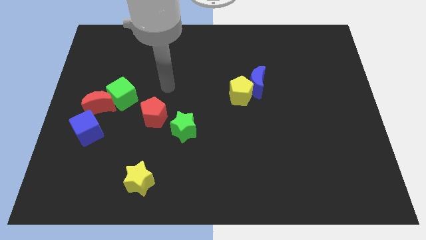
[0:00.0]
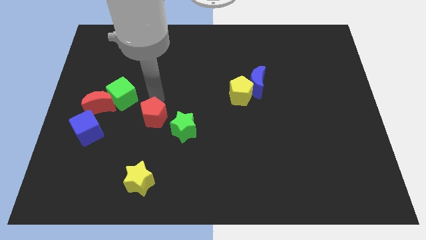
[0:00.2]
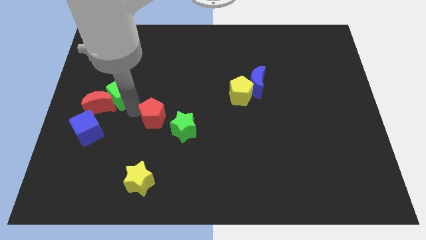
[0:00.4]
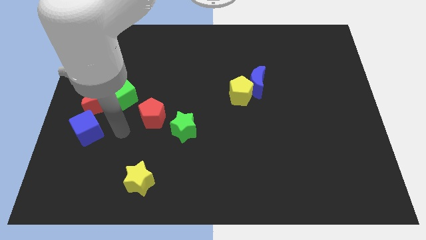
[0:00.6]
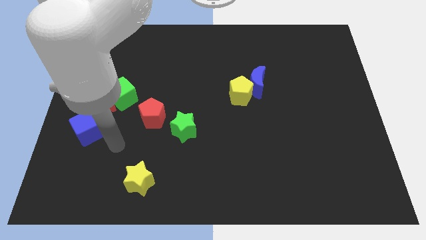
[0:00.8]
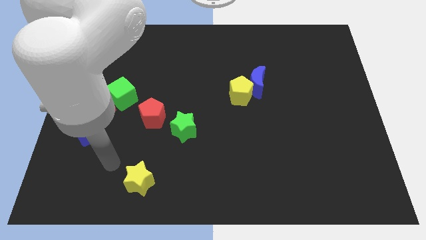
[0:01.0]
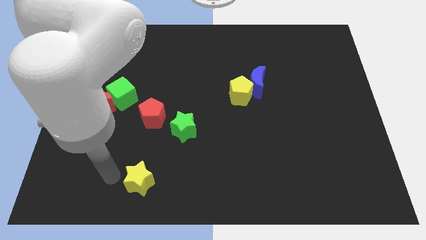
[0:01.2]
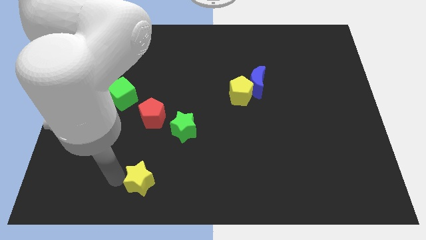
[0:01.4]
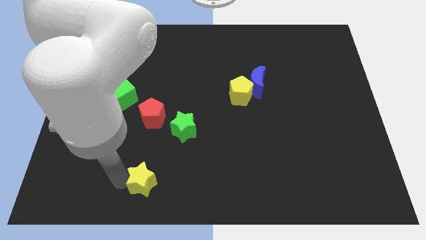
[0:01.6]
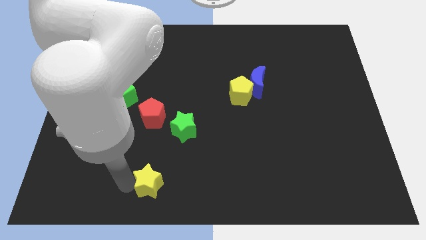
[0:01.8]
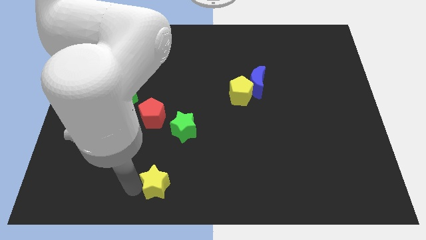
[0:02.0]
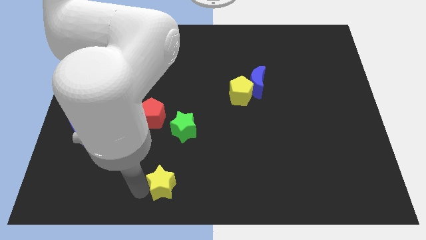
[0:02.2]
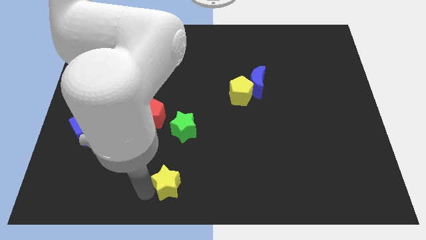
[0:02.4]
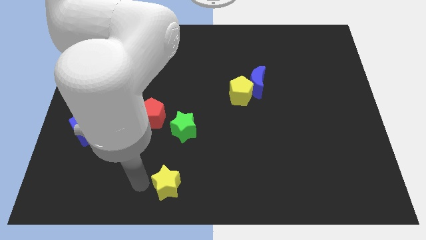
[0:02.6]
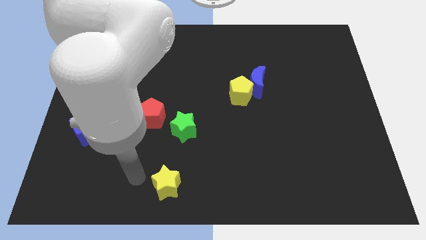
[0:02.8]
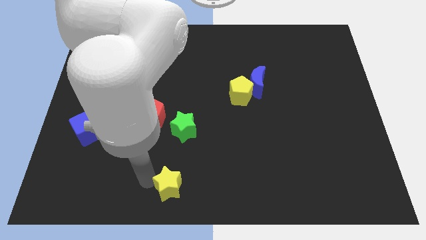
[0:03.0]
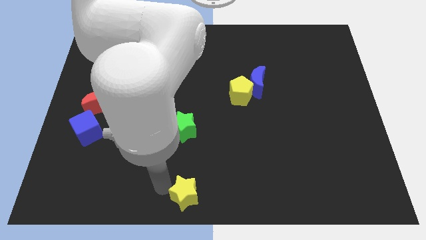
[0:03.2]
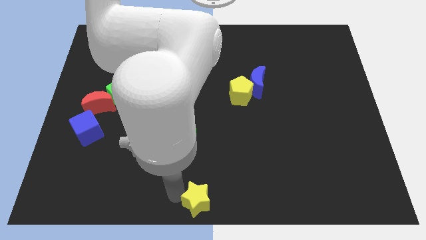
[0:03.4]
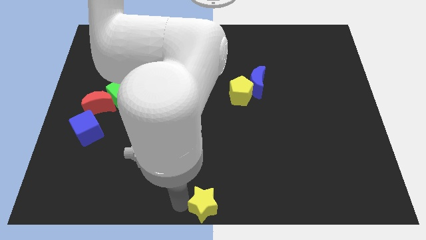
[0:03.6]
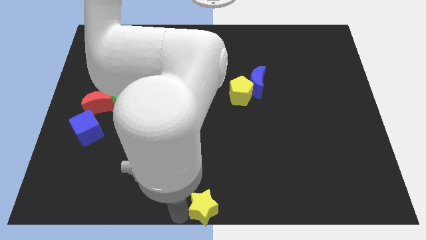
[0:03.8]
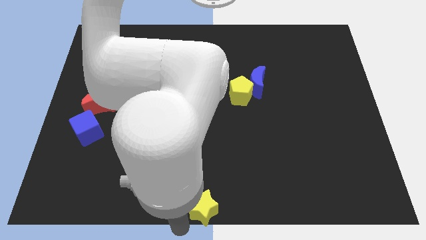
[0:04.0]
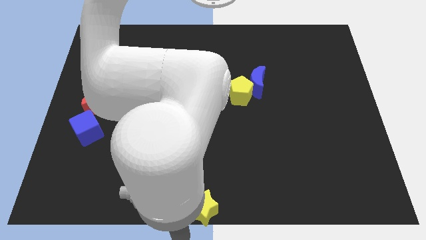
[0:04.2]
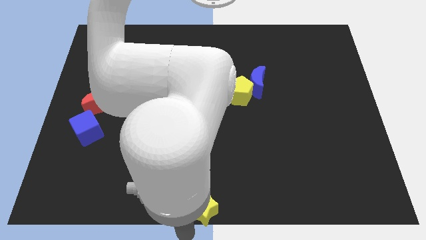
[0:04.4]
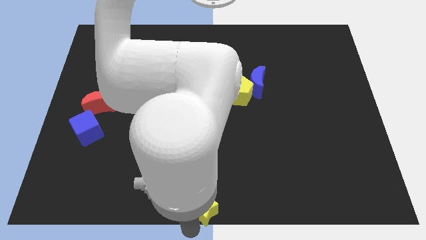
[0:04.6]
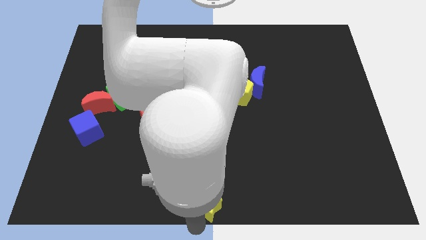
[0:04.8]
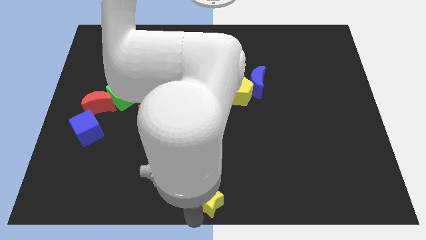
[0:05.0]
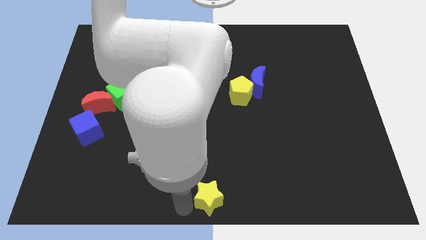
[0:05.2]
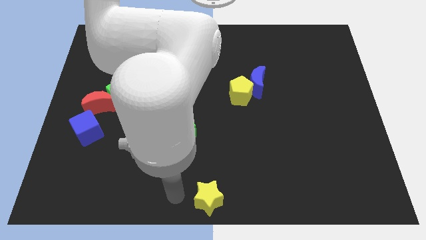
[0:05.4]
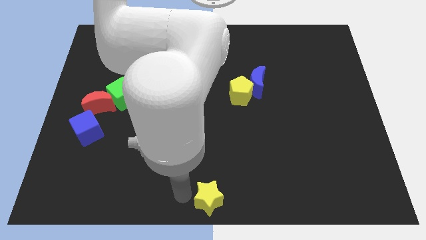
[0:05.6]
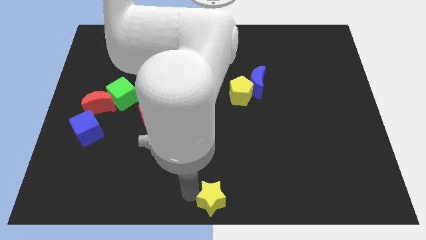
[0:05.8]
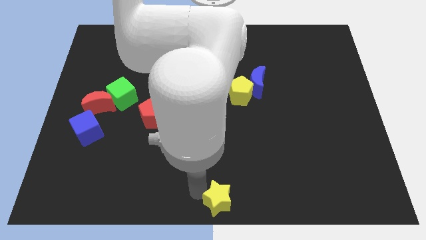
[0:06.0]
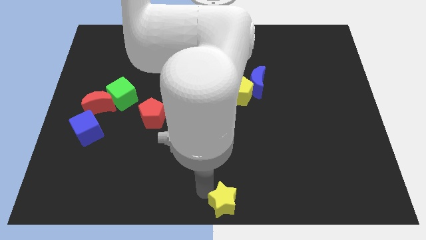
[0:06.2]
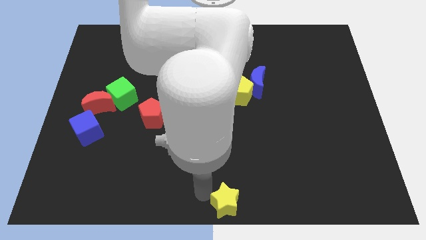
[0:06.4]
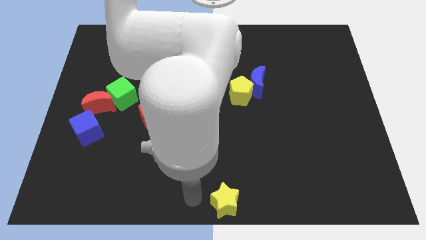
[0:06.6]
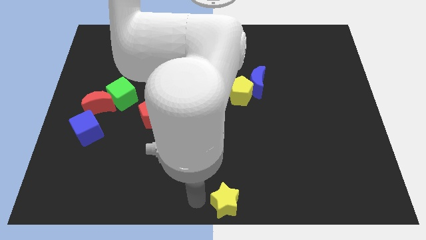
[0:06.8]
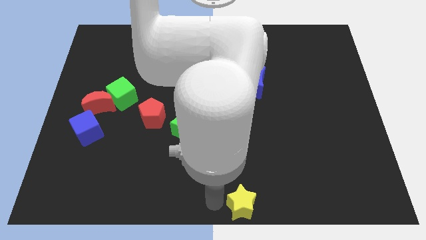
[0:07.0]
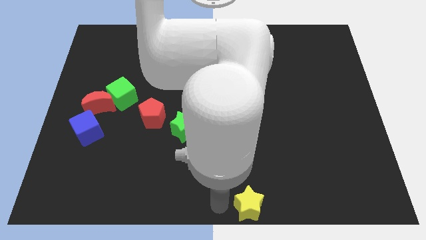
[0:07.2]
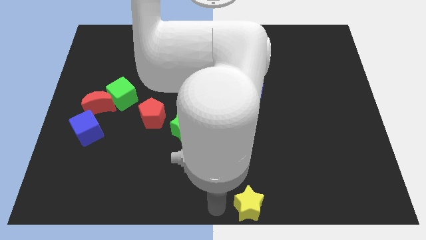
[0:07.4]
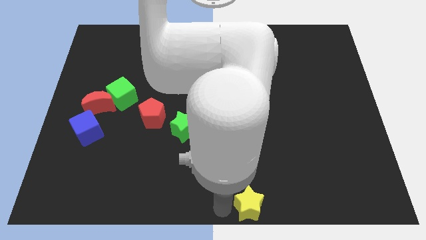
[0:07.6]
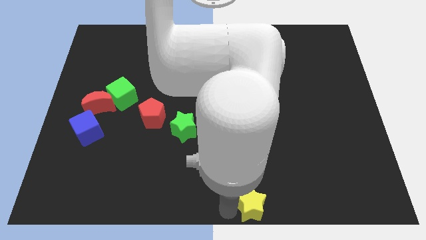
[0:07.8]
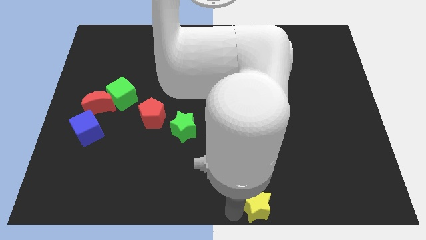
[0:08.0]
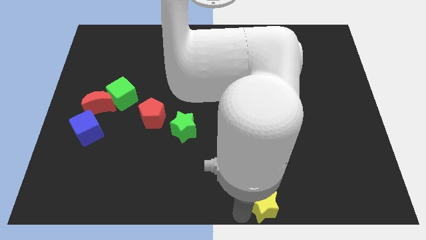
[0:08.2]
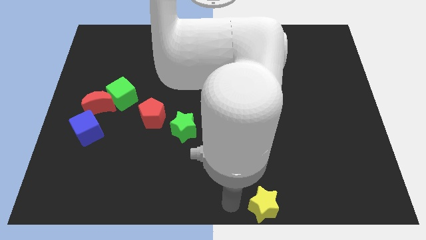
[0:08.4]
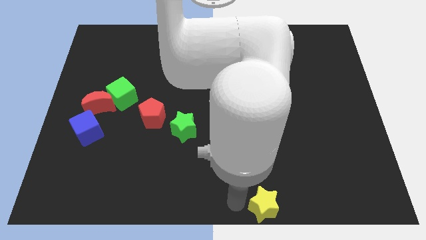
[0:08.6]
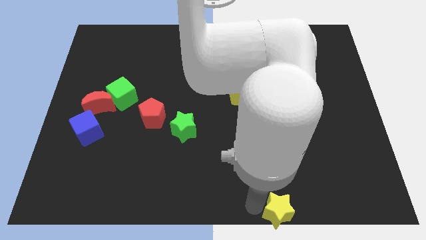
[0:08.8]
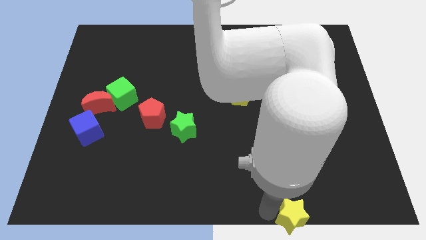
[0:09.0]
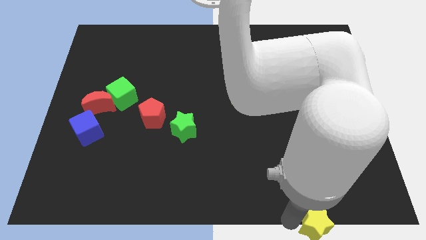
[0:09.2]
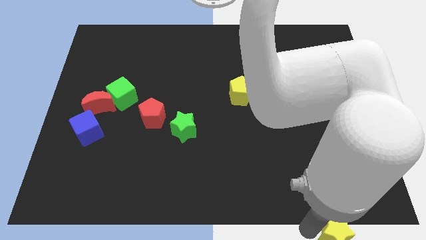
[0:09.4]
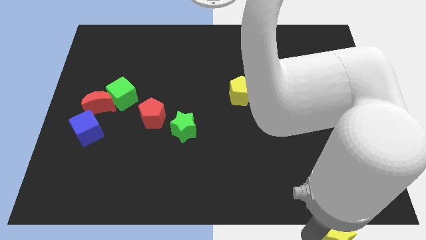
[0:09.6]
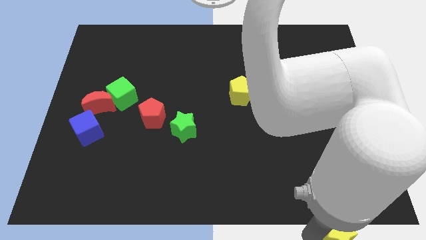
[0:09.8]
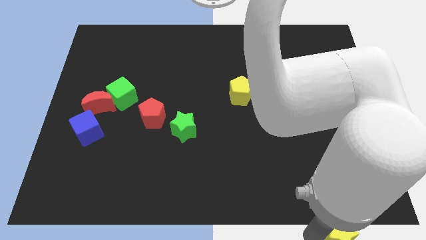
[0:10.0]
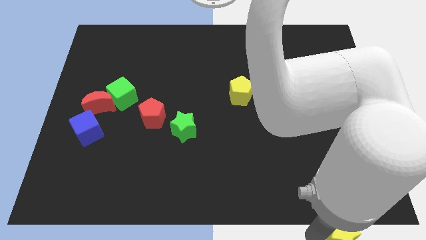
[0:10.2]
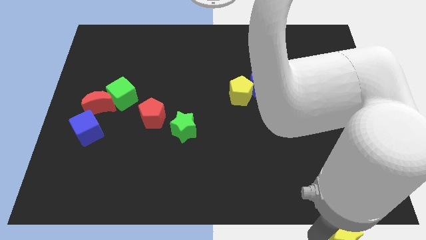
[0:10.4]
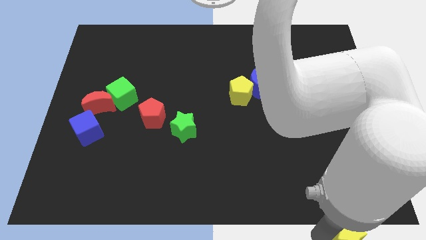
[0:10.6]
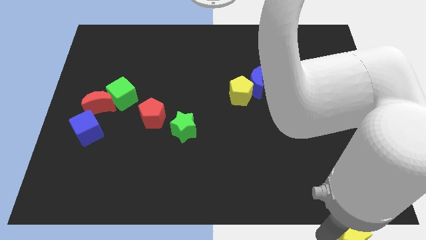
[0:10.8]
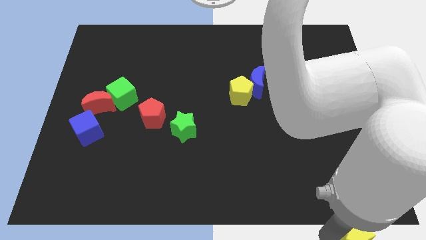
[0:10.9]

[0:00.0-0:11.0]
move the yellow star to the bottom right of the board

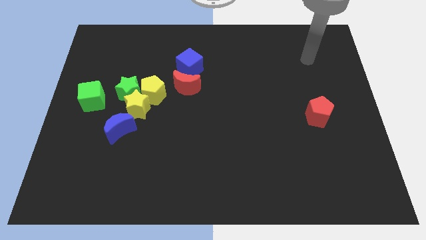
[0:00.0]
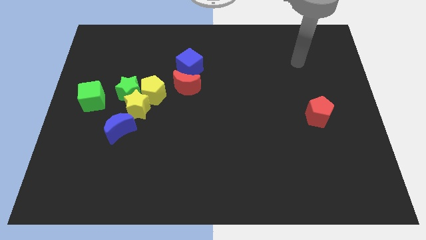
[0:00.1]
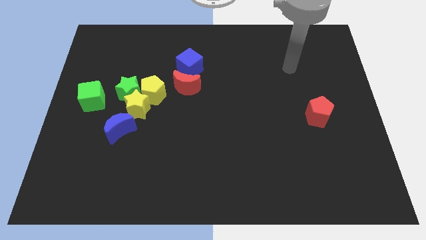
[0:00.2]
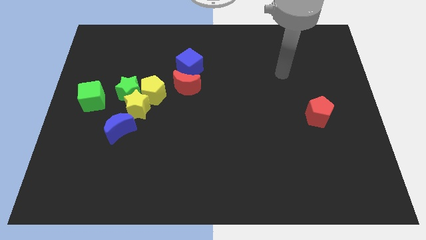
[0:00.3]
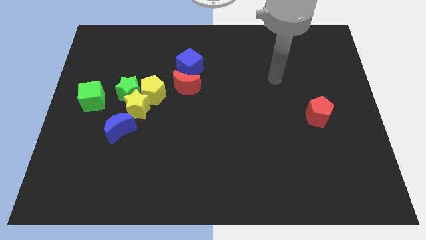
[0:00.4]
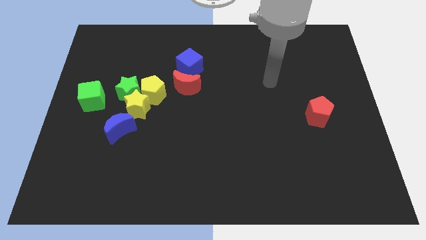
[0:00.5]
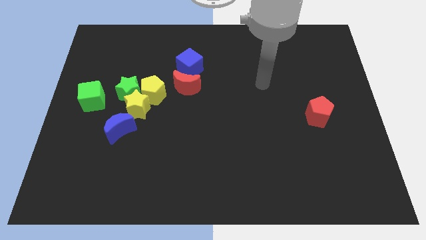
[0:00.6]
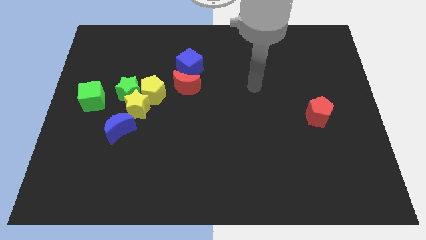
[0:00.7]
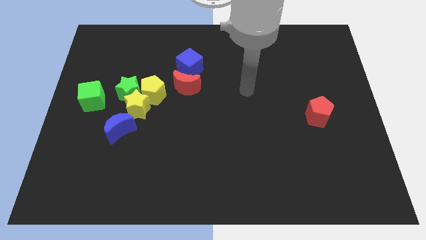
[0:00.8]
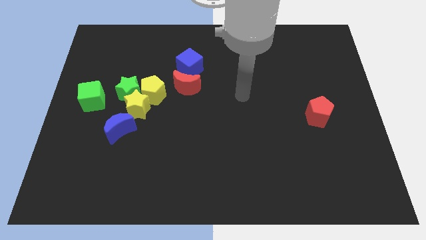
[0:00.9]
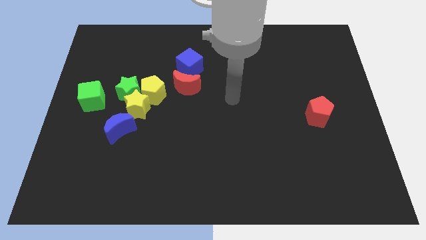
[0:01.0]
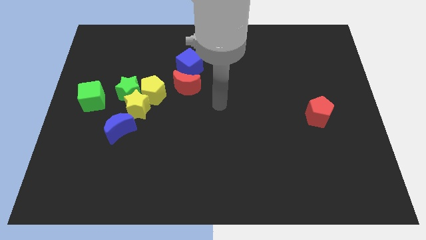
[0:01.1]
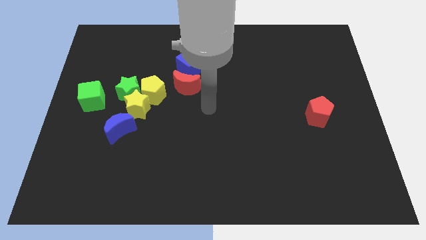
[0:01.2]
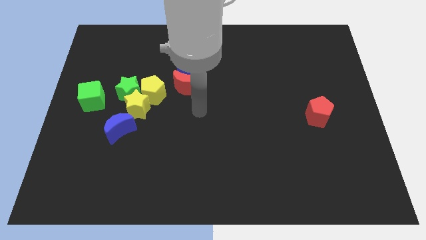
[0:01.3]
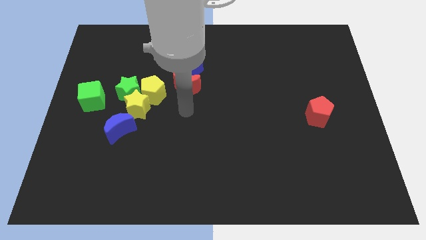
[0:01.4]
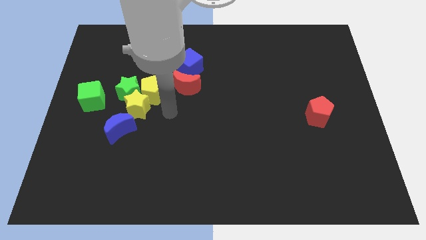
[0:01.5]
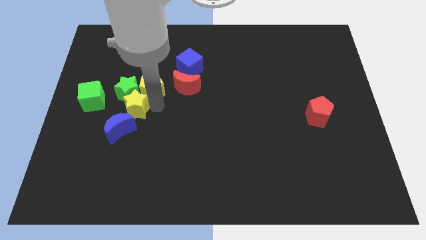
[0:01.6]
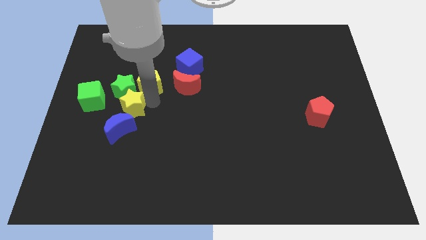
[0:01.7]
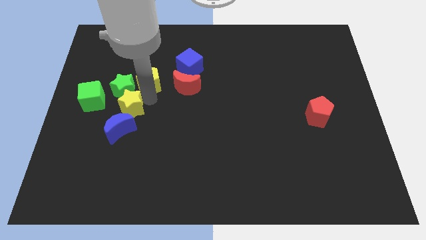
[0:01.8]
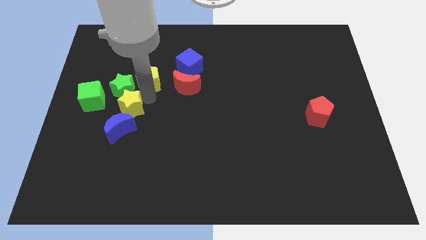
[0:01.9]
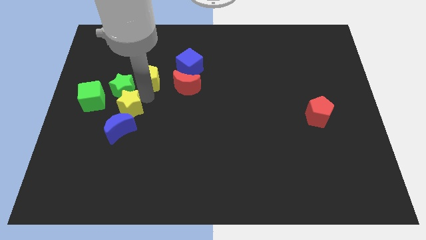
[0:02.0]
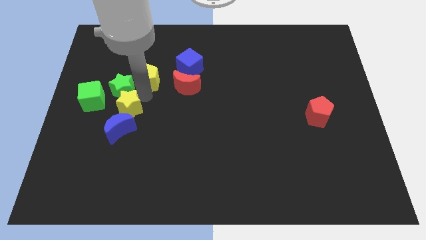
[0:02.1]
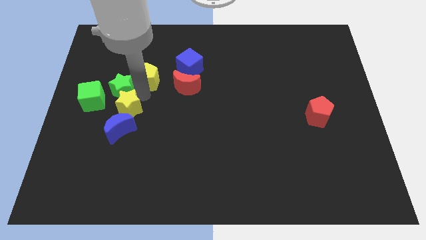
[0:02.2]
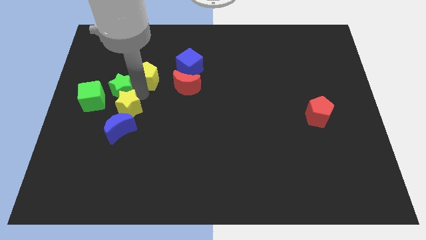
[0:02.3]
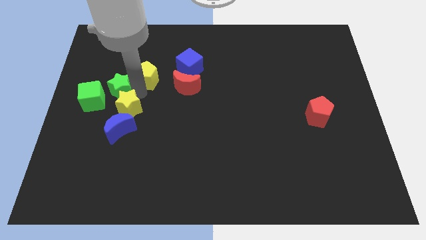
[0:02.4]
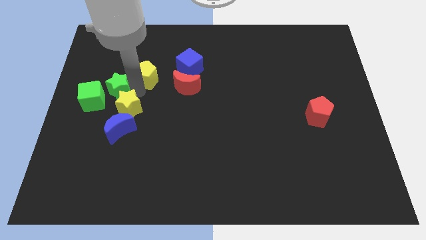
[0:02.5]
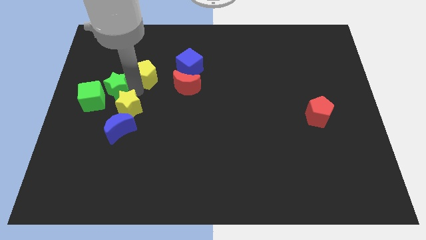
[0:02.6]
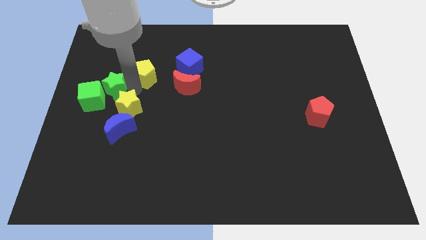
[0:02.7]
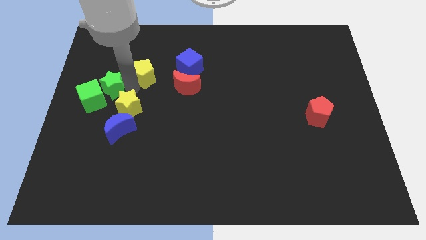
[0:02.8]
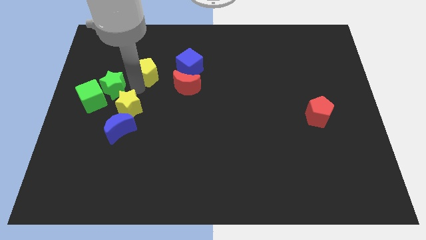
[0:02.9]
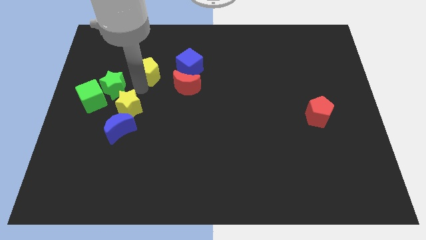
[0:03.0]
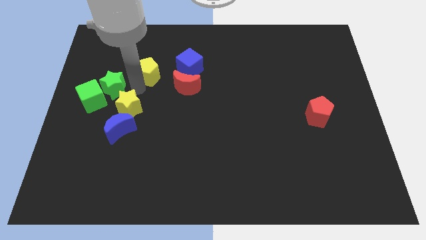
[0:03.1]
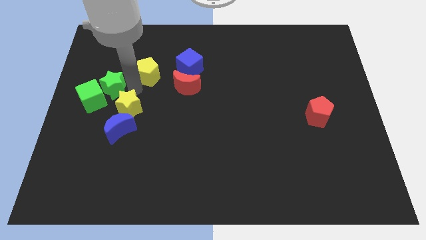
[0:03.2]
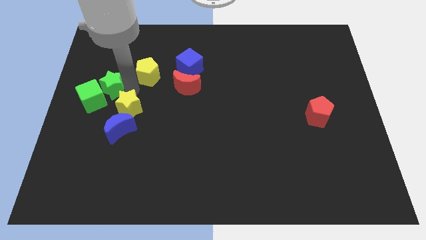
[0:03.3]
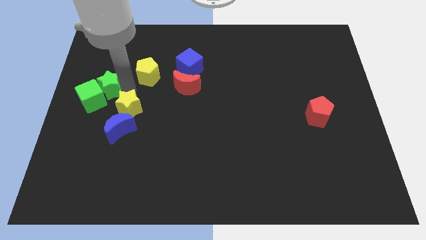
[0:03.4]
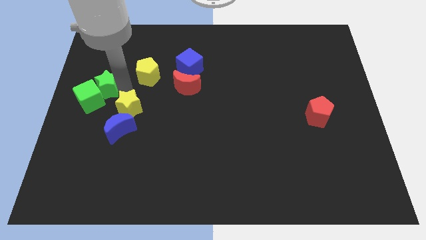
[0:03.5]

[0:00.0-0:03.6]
move the green star to the left side of the board
